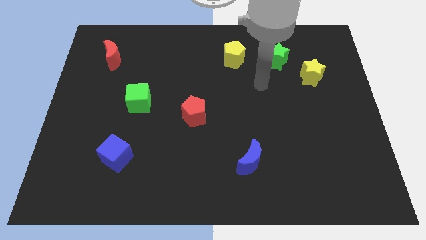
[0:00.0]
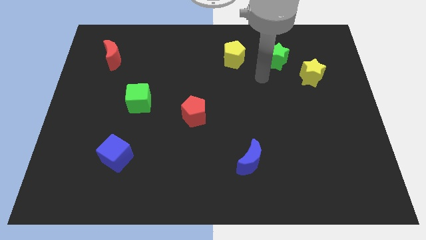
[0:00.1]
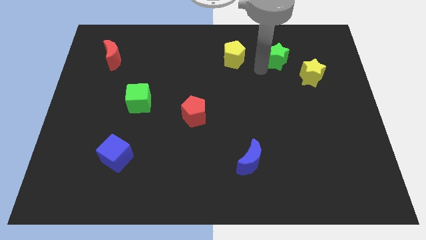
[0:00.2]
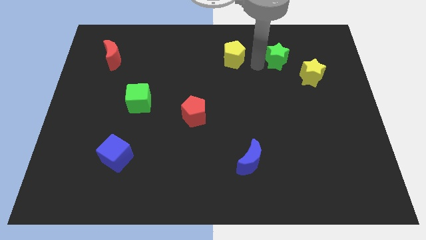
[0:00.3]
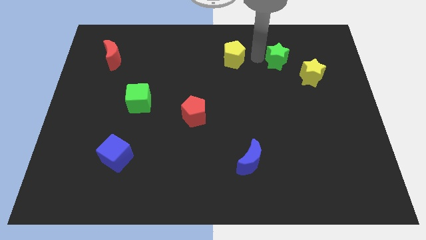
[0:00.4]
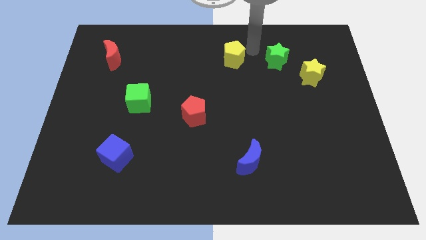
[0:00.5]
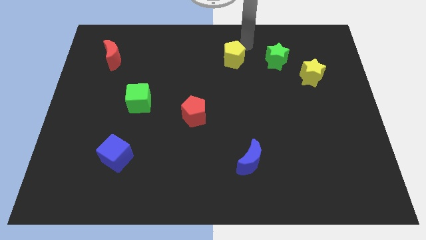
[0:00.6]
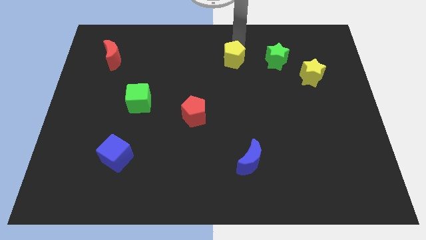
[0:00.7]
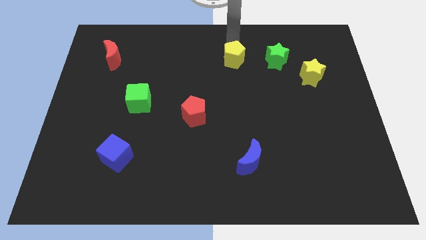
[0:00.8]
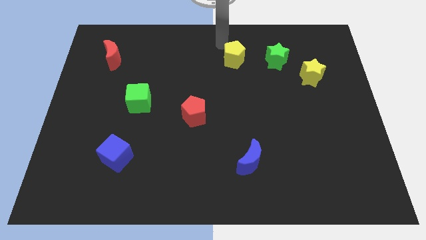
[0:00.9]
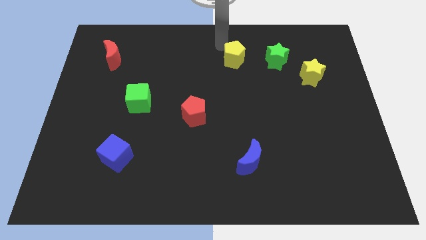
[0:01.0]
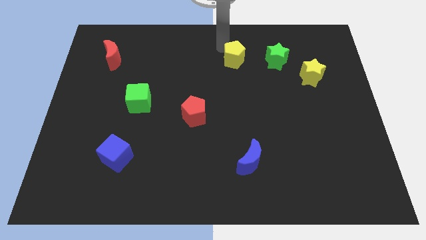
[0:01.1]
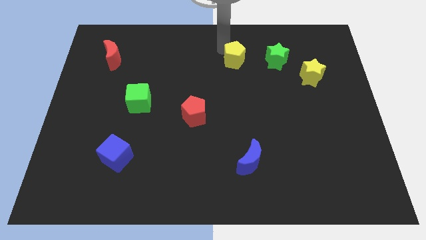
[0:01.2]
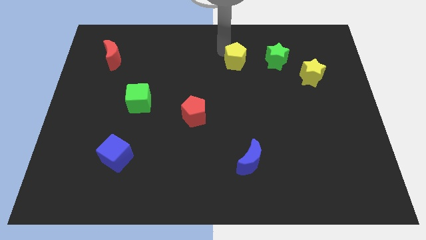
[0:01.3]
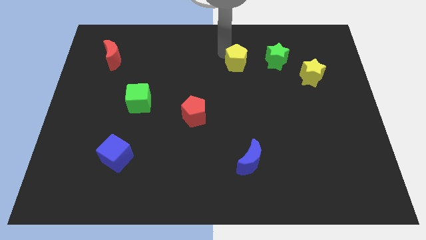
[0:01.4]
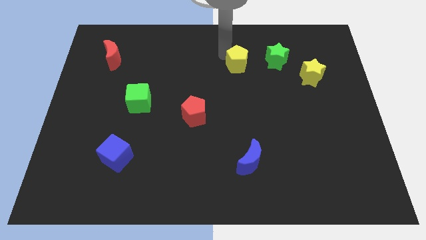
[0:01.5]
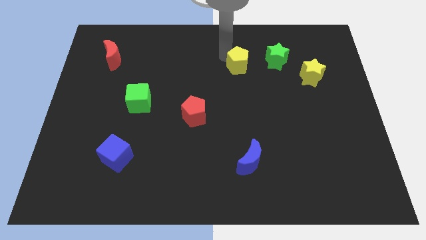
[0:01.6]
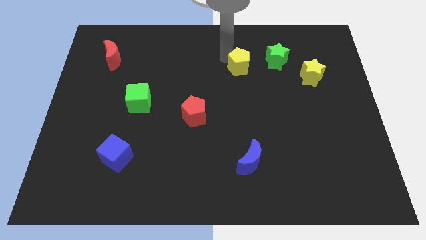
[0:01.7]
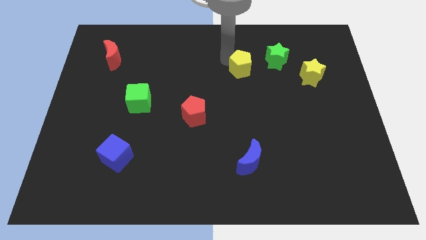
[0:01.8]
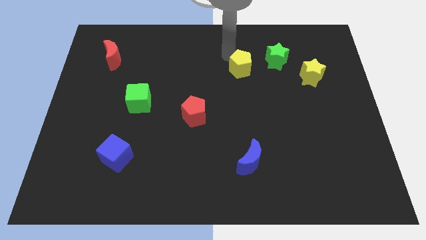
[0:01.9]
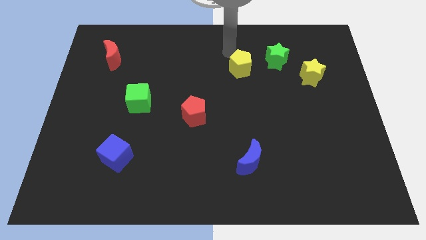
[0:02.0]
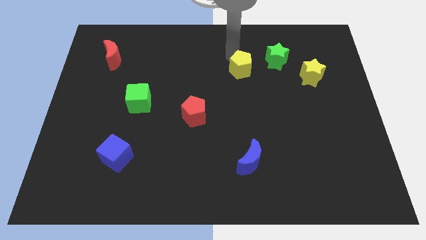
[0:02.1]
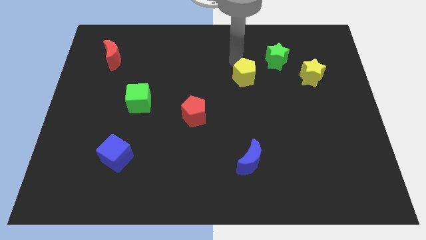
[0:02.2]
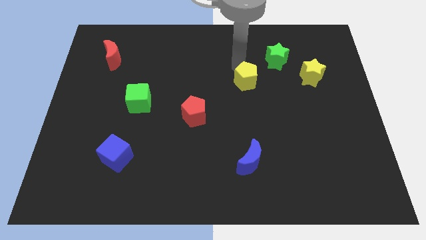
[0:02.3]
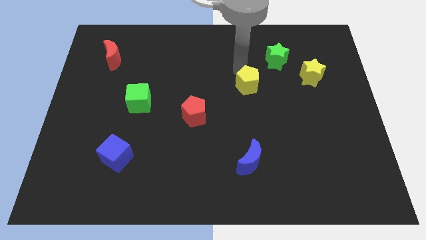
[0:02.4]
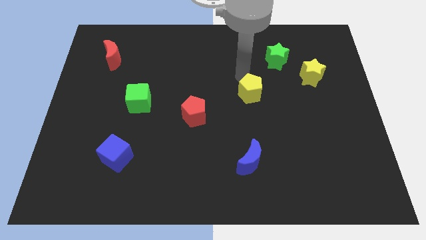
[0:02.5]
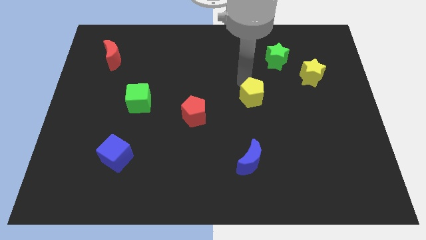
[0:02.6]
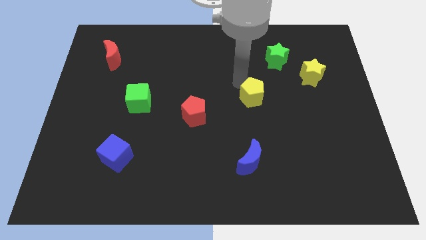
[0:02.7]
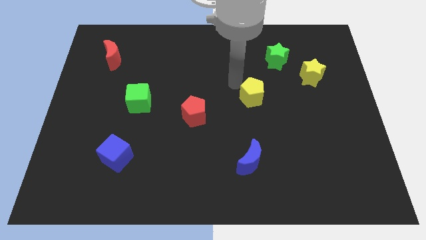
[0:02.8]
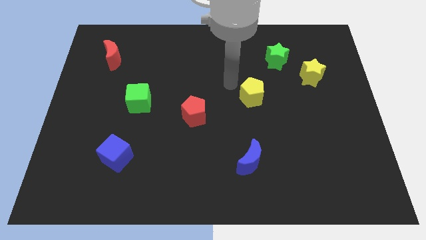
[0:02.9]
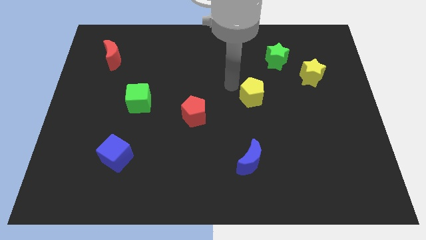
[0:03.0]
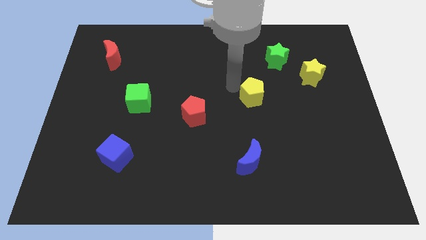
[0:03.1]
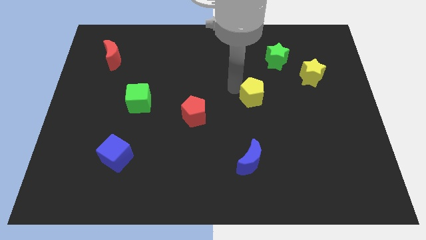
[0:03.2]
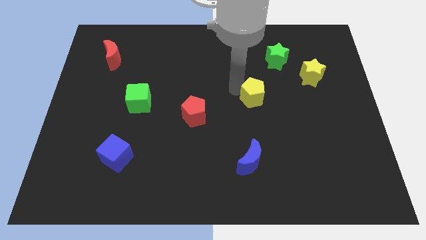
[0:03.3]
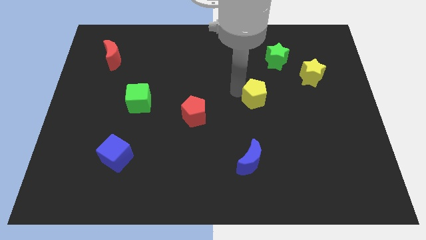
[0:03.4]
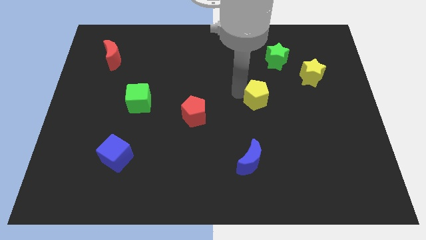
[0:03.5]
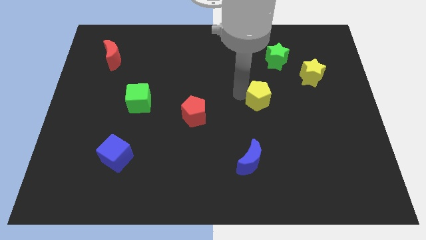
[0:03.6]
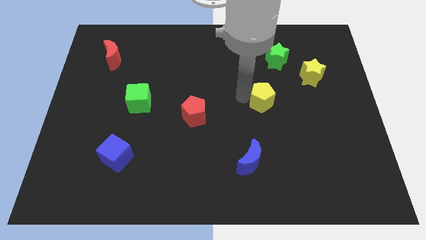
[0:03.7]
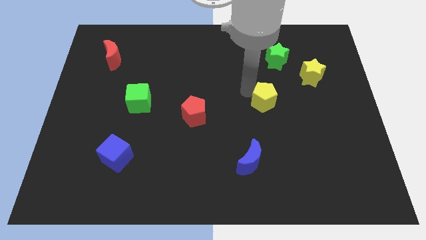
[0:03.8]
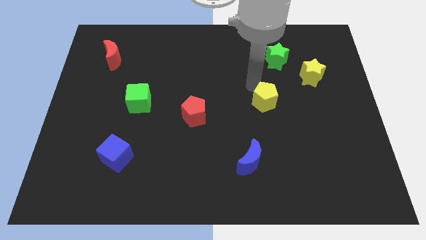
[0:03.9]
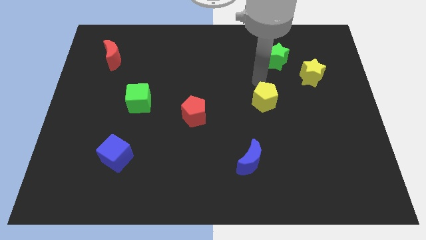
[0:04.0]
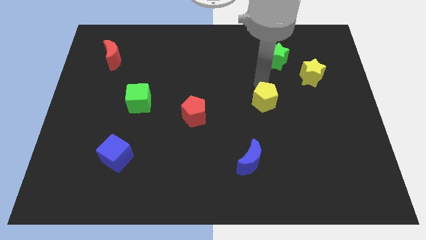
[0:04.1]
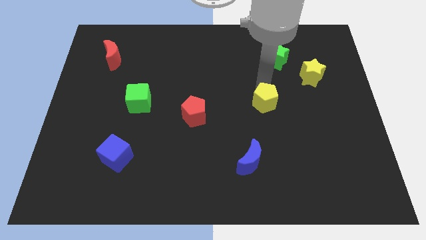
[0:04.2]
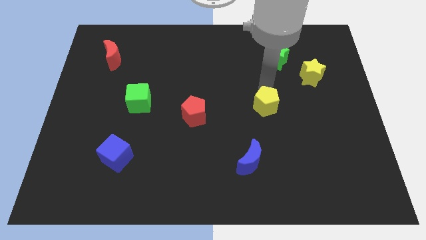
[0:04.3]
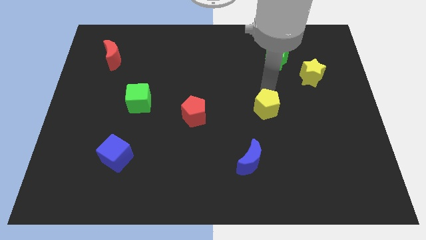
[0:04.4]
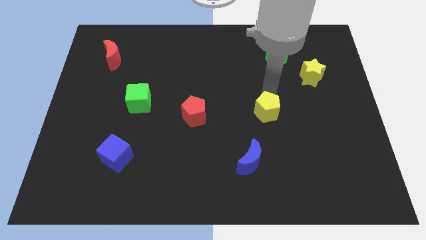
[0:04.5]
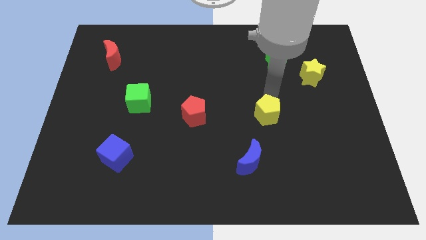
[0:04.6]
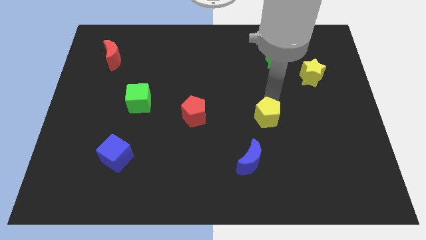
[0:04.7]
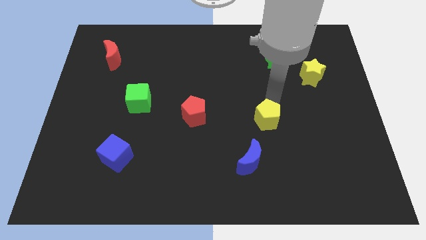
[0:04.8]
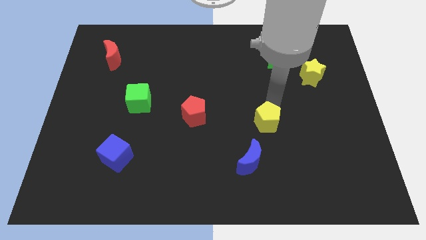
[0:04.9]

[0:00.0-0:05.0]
put the yellow pentagon to the top right side of the blue moon

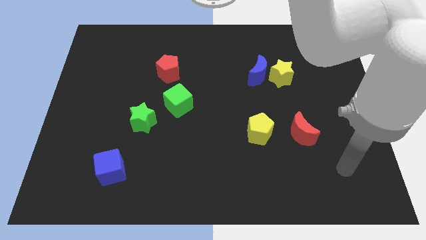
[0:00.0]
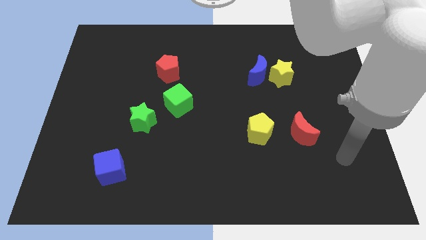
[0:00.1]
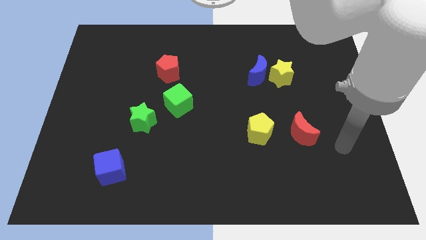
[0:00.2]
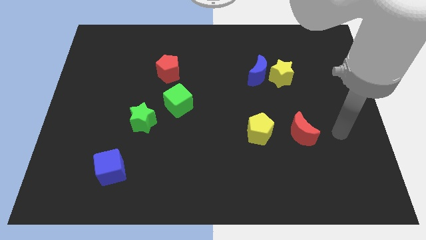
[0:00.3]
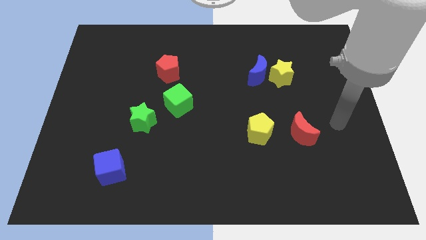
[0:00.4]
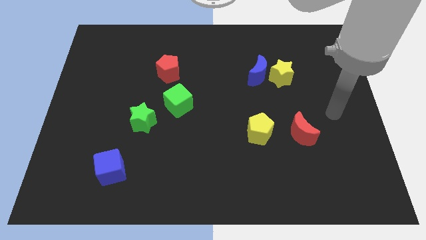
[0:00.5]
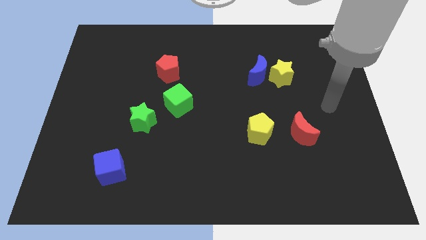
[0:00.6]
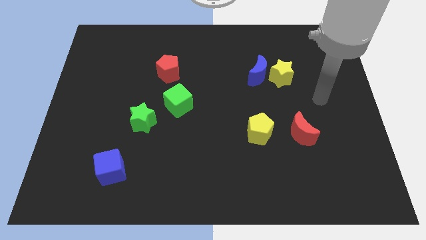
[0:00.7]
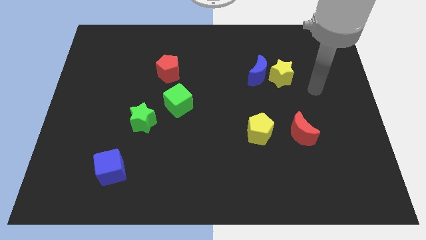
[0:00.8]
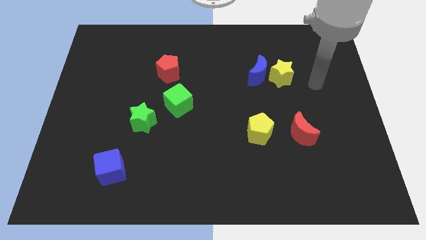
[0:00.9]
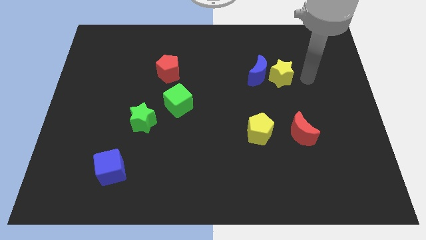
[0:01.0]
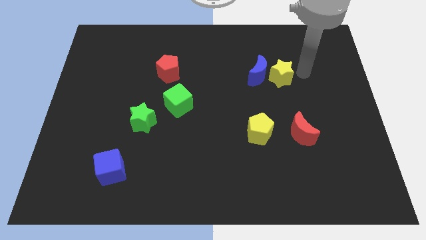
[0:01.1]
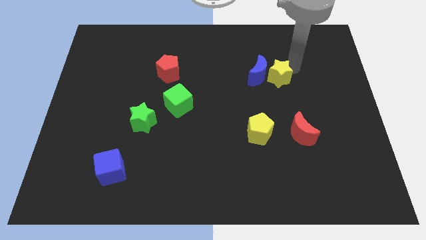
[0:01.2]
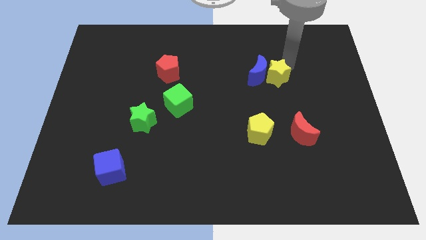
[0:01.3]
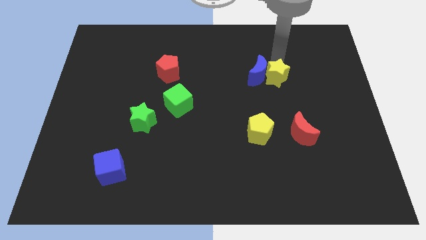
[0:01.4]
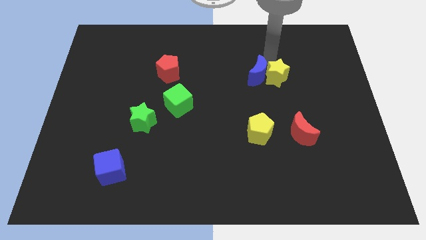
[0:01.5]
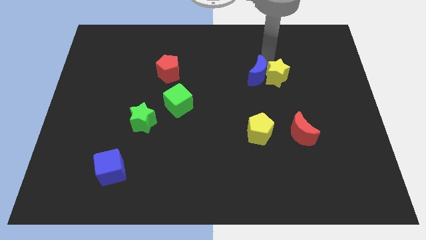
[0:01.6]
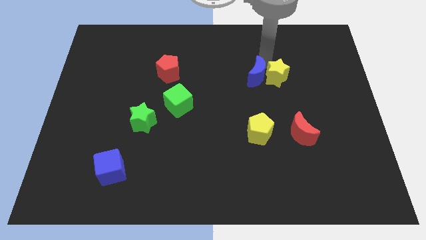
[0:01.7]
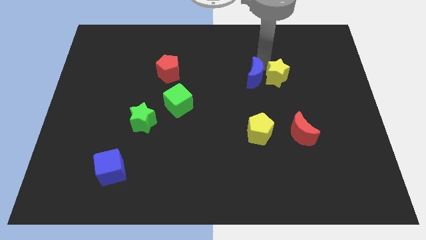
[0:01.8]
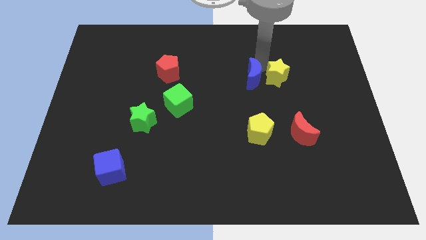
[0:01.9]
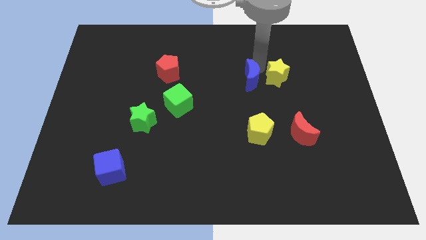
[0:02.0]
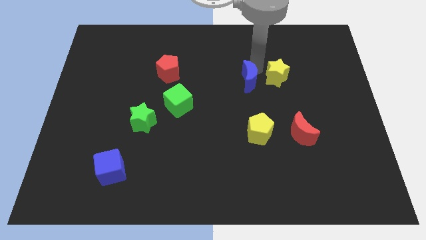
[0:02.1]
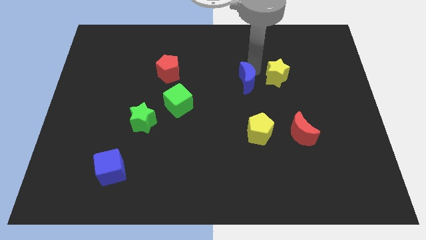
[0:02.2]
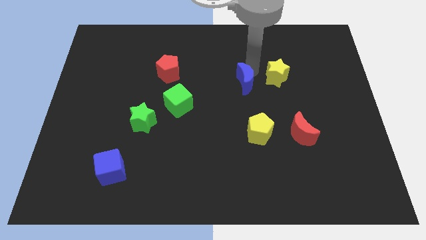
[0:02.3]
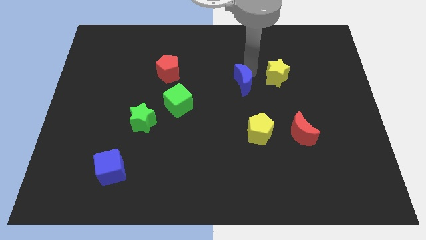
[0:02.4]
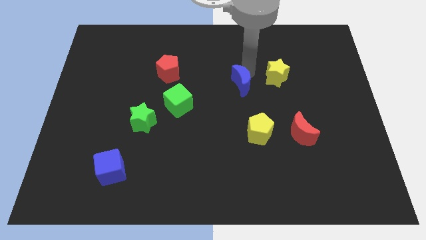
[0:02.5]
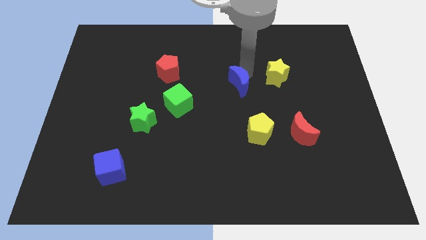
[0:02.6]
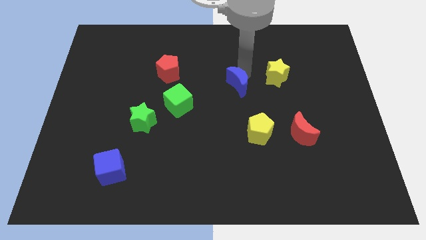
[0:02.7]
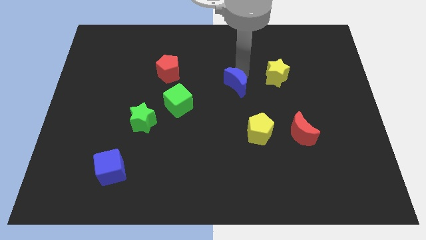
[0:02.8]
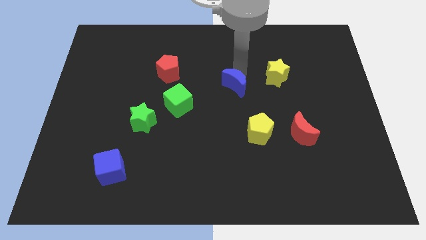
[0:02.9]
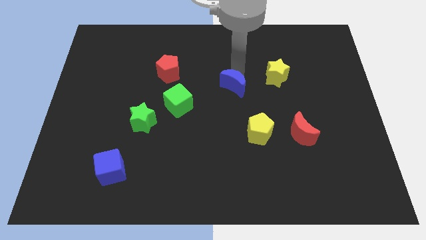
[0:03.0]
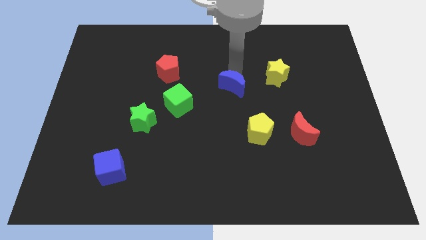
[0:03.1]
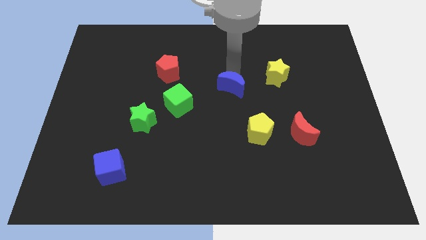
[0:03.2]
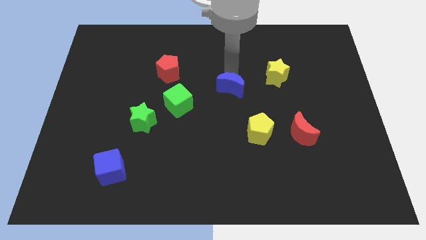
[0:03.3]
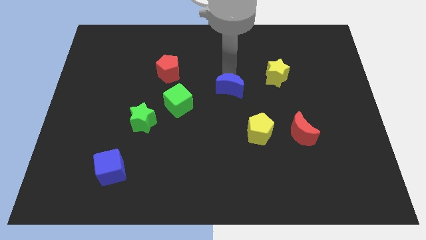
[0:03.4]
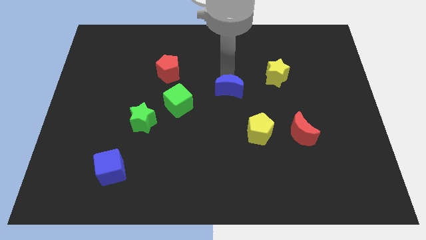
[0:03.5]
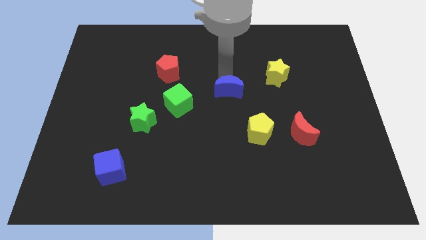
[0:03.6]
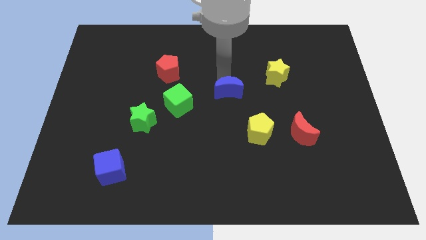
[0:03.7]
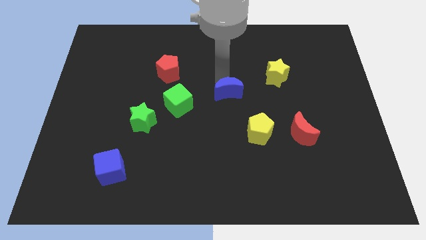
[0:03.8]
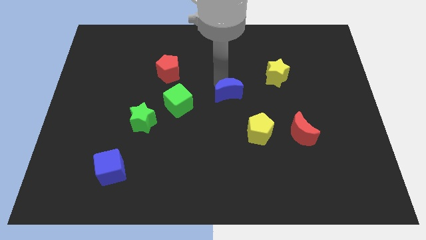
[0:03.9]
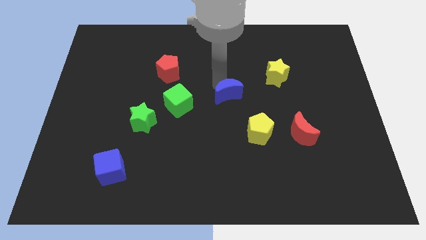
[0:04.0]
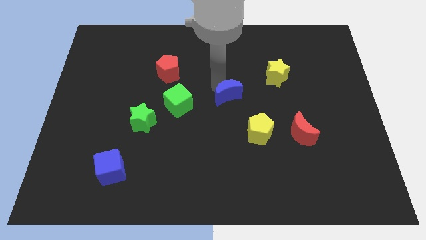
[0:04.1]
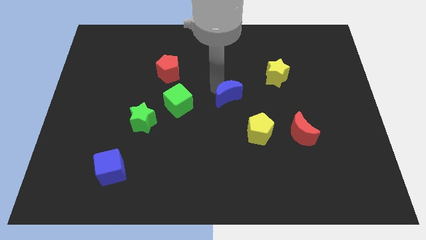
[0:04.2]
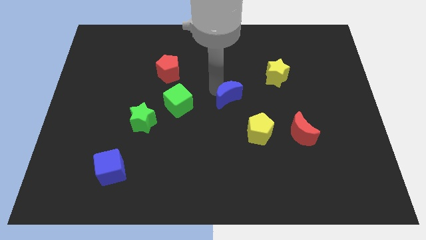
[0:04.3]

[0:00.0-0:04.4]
put the blue moon to the top left of the yellow pentagon
